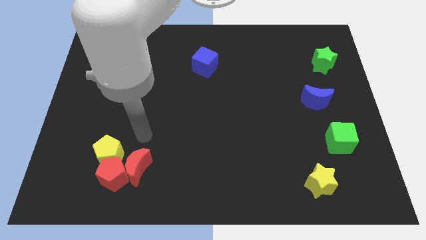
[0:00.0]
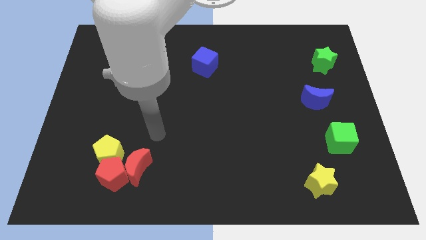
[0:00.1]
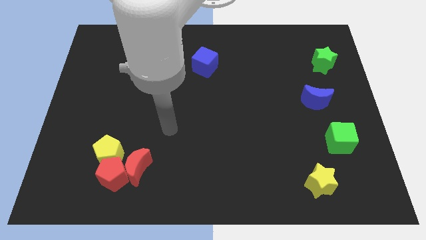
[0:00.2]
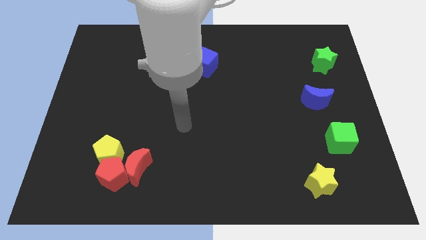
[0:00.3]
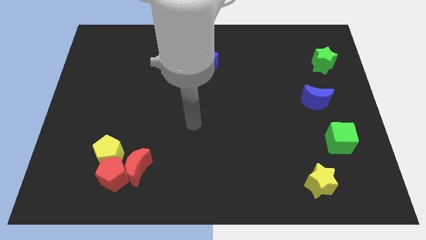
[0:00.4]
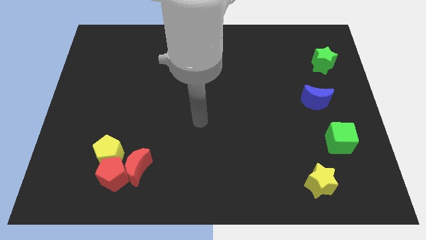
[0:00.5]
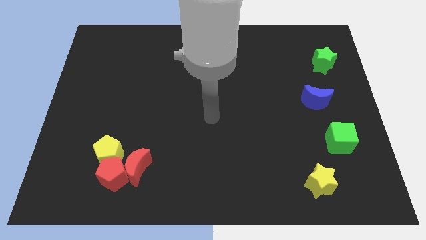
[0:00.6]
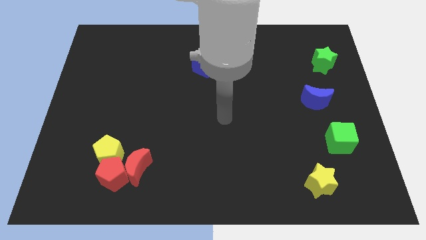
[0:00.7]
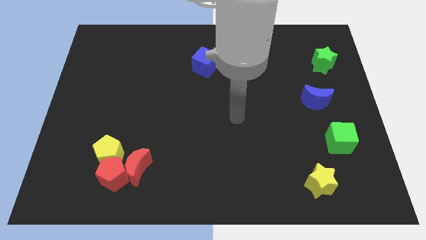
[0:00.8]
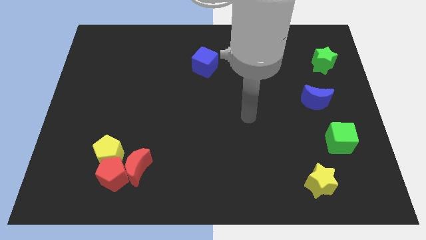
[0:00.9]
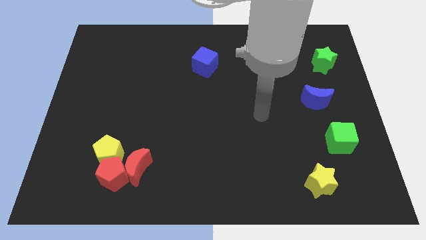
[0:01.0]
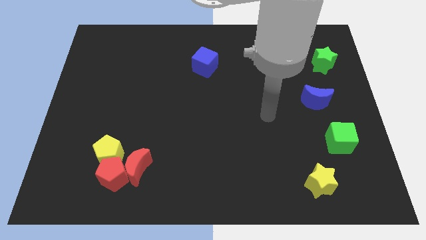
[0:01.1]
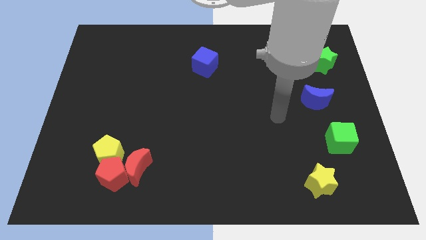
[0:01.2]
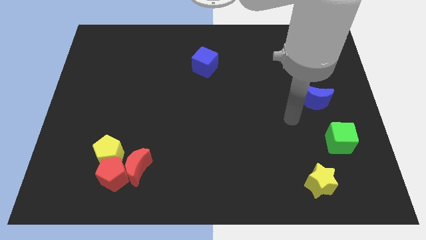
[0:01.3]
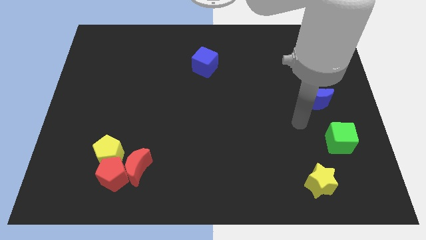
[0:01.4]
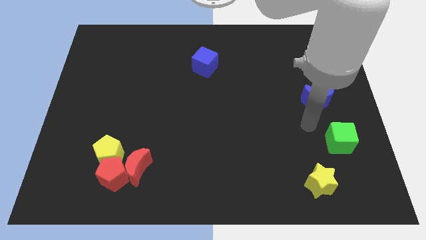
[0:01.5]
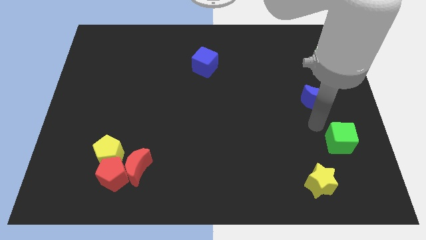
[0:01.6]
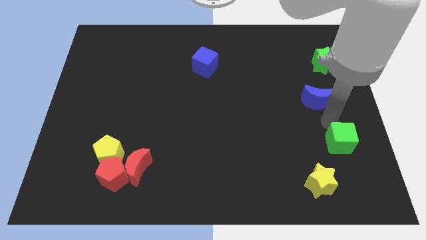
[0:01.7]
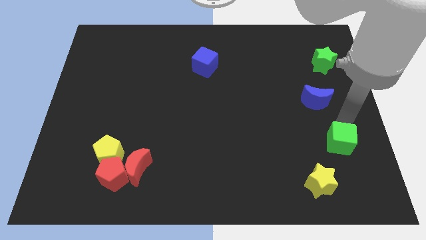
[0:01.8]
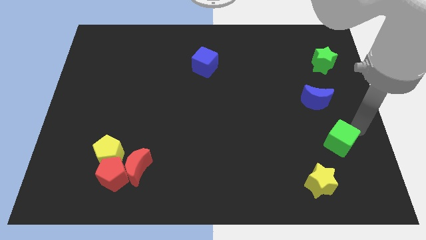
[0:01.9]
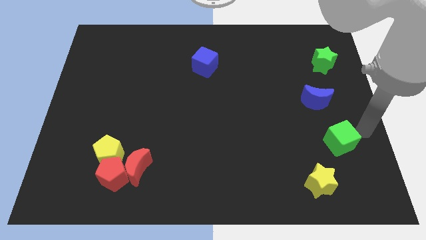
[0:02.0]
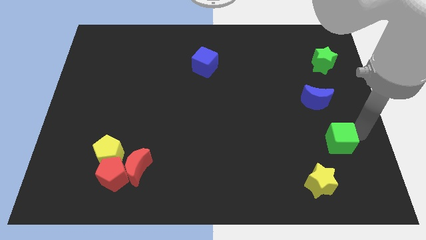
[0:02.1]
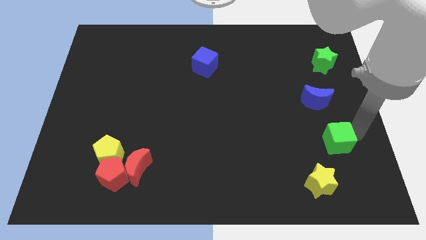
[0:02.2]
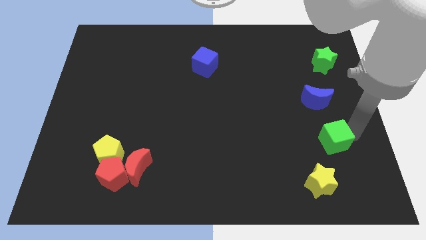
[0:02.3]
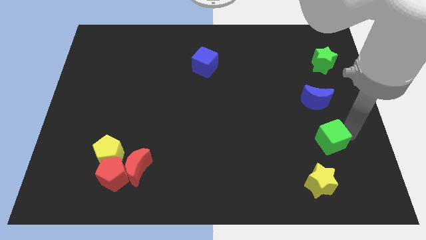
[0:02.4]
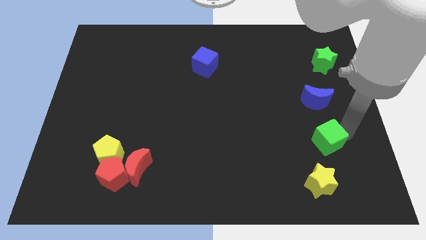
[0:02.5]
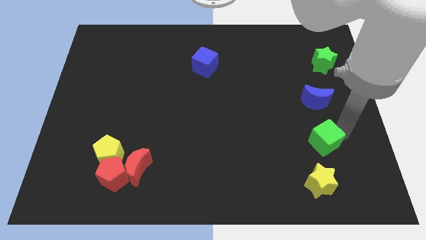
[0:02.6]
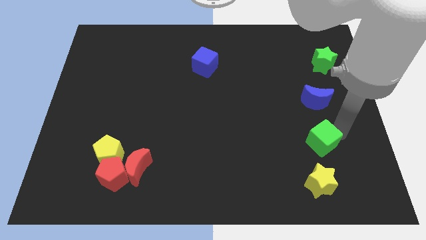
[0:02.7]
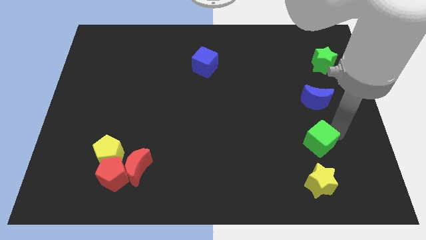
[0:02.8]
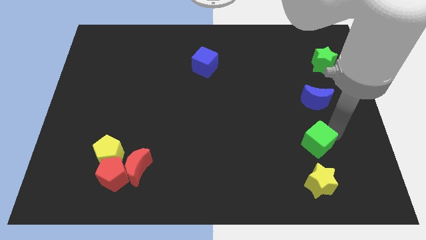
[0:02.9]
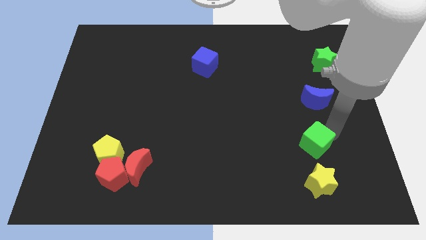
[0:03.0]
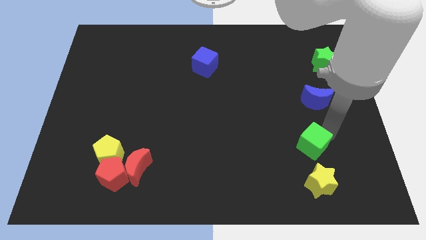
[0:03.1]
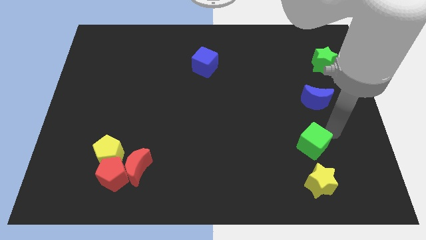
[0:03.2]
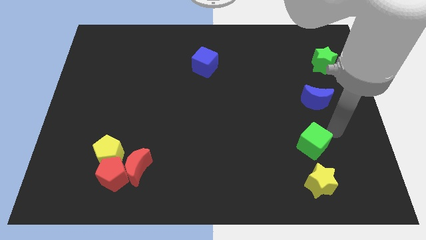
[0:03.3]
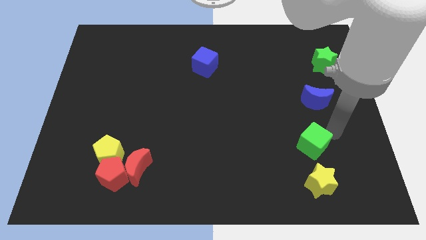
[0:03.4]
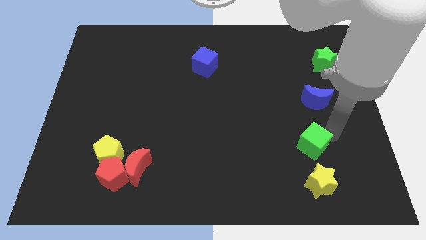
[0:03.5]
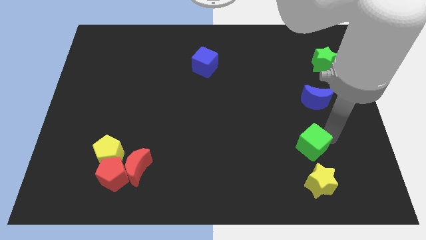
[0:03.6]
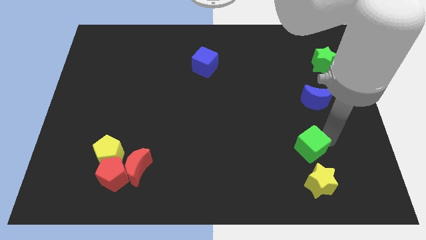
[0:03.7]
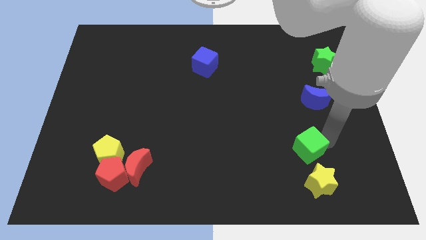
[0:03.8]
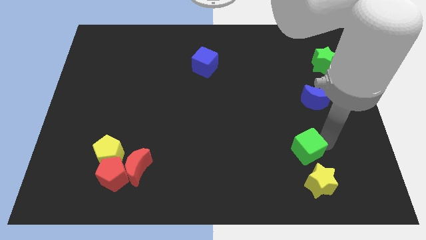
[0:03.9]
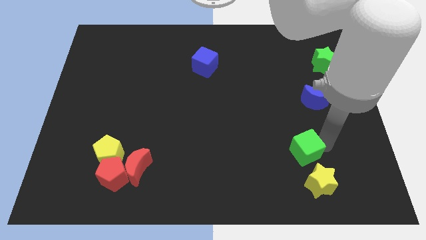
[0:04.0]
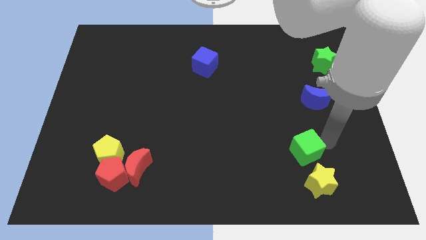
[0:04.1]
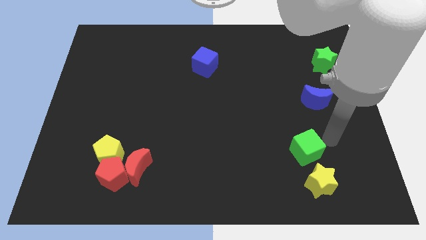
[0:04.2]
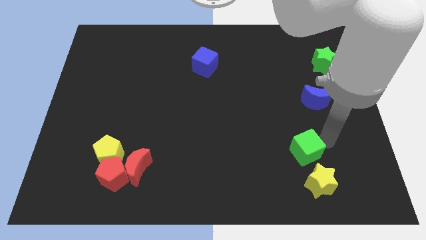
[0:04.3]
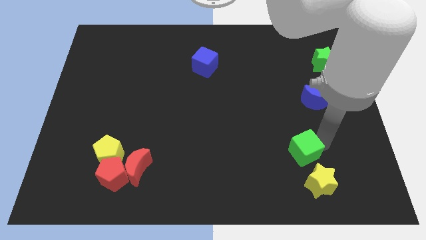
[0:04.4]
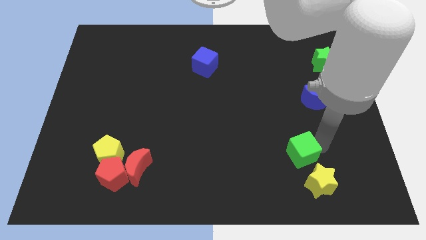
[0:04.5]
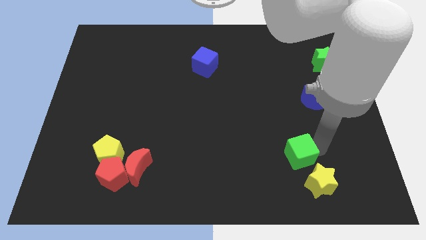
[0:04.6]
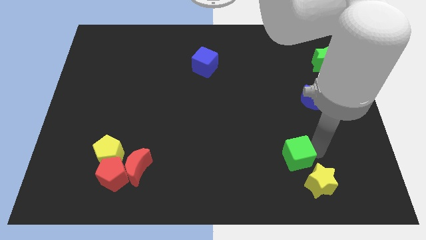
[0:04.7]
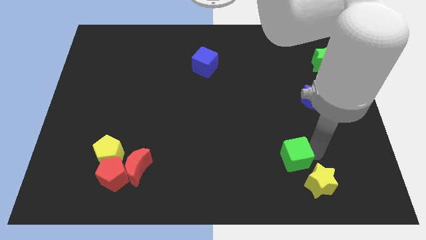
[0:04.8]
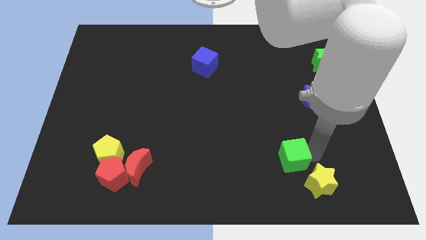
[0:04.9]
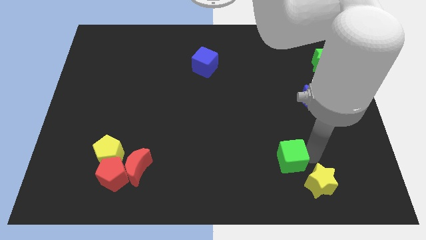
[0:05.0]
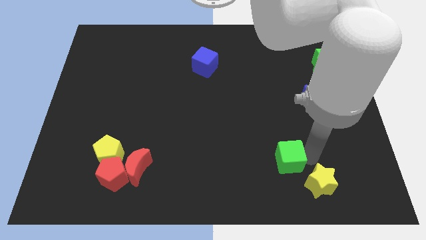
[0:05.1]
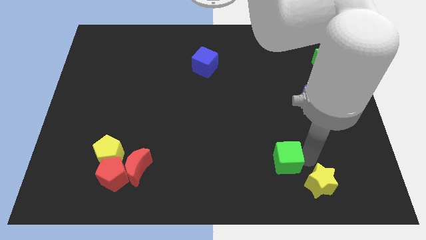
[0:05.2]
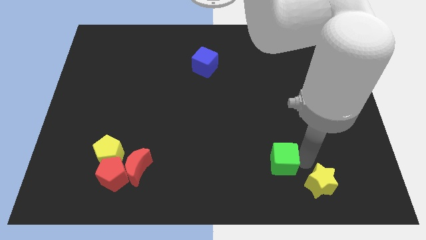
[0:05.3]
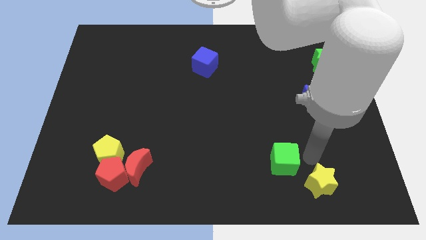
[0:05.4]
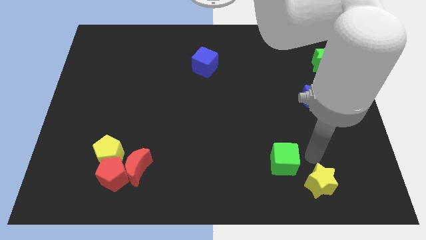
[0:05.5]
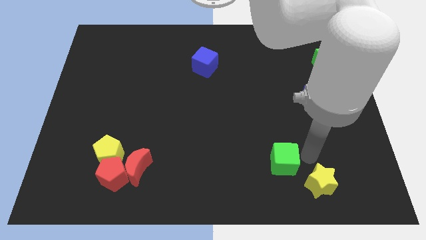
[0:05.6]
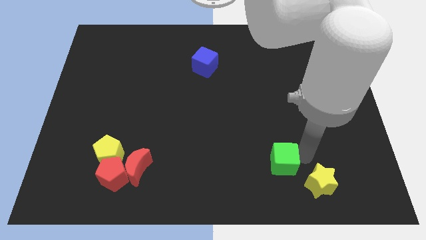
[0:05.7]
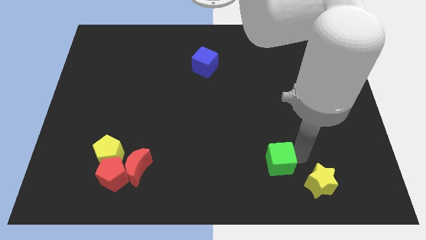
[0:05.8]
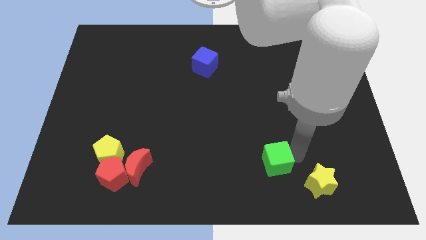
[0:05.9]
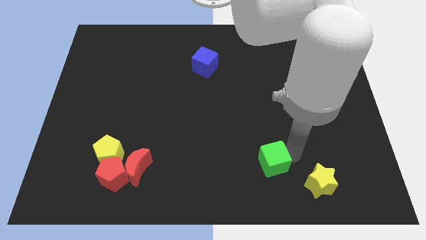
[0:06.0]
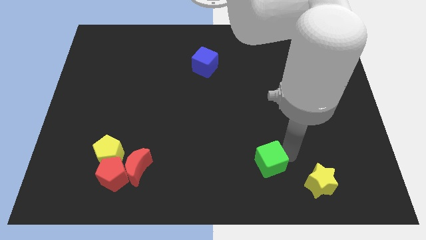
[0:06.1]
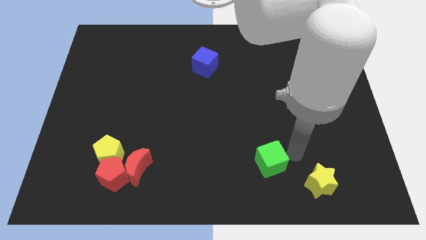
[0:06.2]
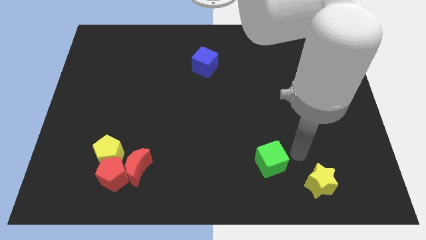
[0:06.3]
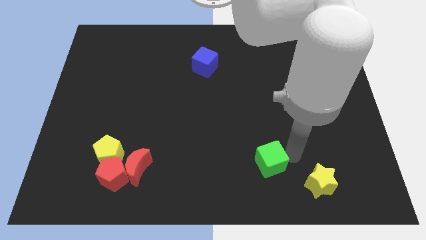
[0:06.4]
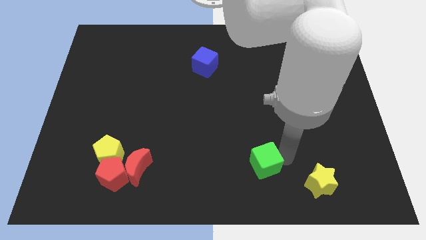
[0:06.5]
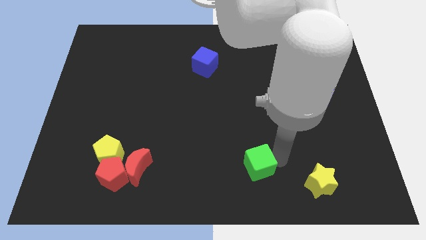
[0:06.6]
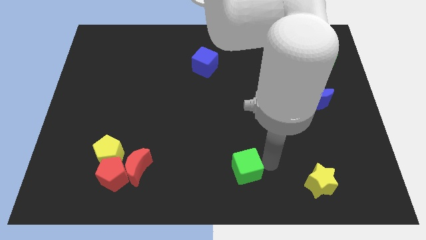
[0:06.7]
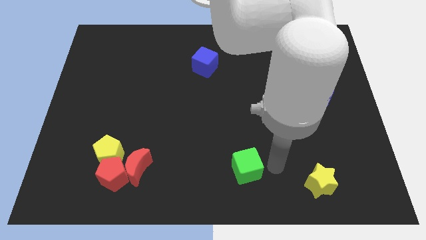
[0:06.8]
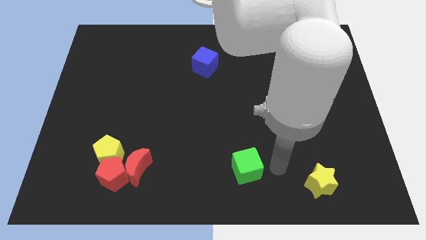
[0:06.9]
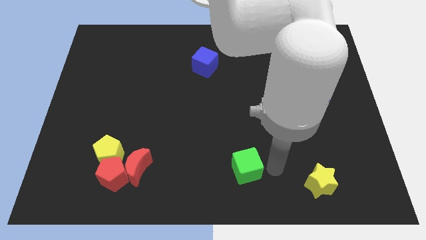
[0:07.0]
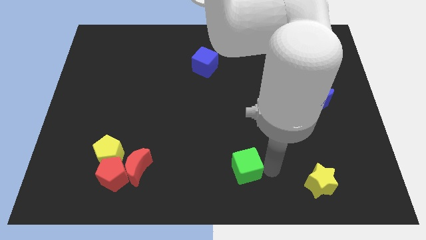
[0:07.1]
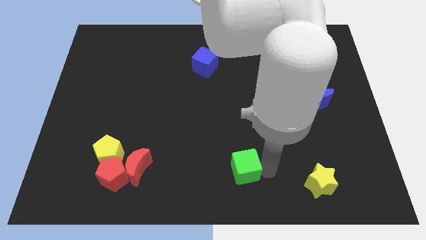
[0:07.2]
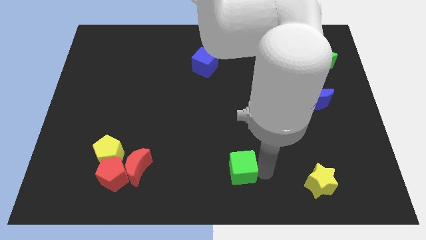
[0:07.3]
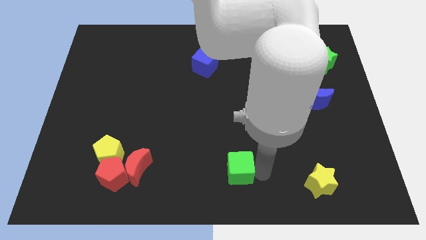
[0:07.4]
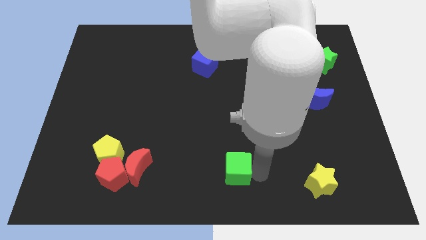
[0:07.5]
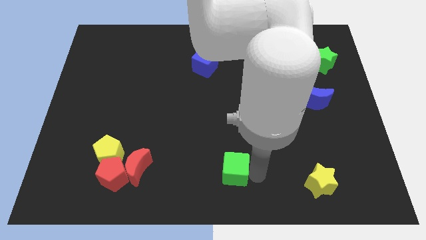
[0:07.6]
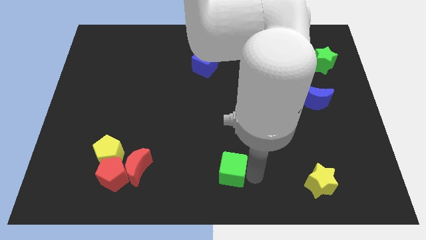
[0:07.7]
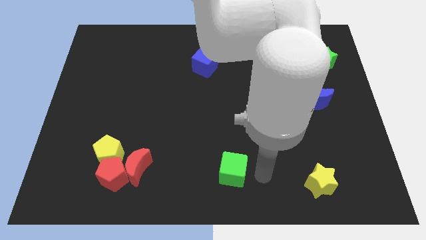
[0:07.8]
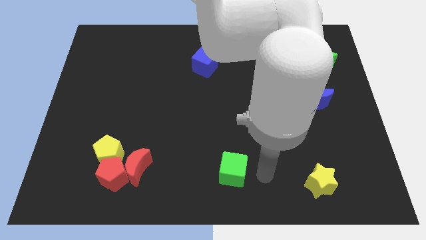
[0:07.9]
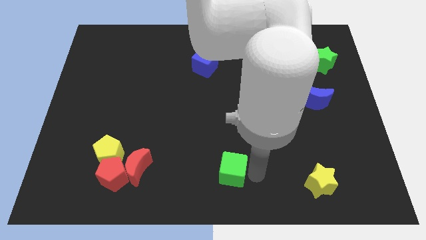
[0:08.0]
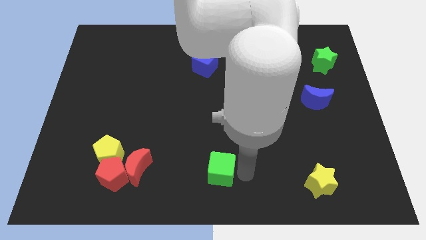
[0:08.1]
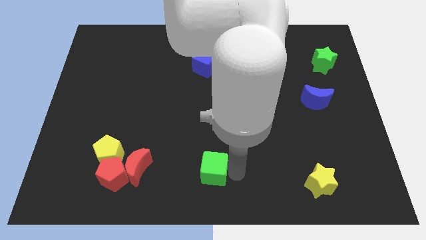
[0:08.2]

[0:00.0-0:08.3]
push the green cube to the right side of the red moon
